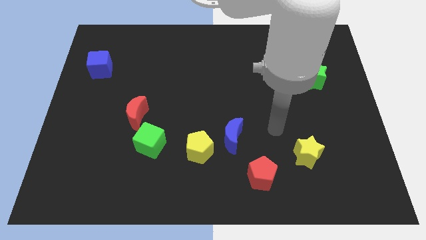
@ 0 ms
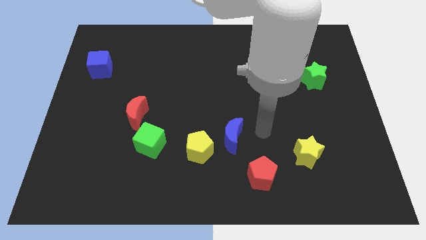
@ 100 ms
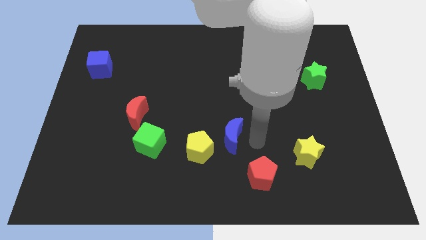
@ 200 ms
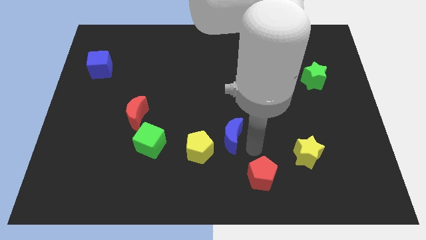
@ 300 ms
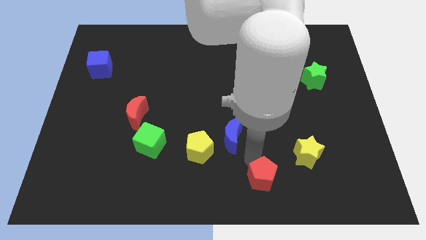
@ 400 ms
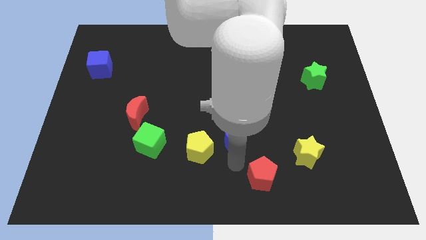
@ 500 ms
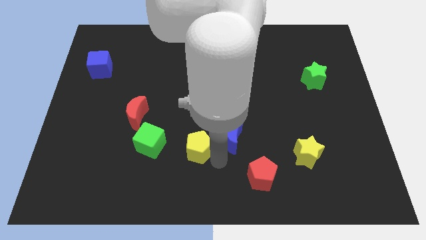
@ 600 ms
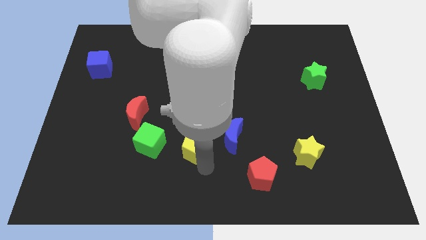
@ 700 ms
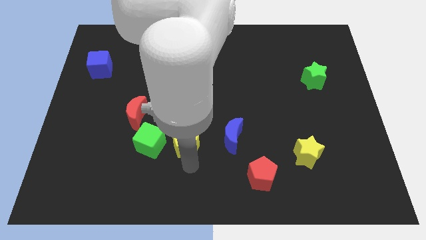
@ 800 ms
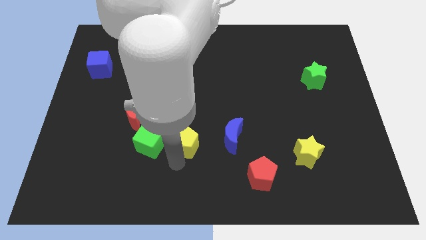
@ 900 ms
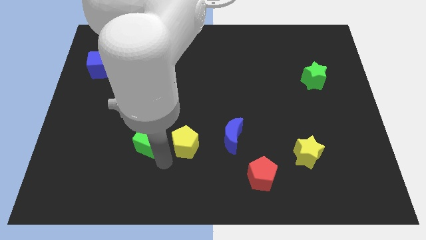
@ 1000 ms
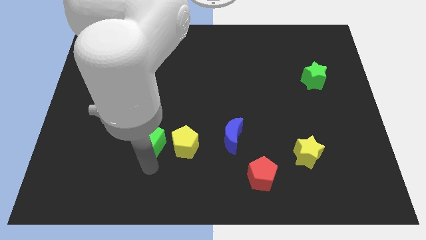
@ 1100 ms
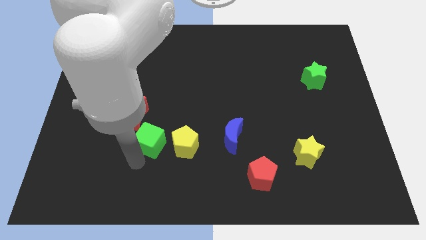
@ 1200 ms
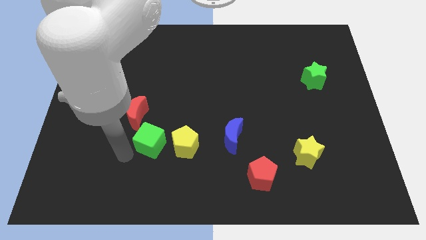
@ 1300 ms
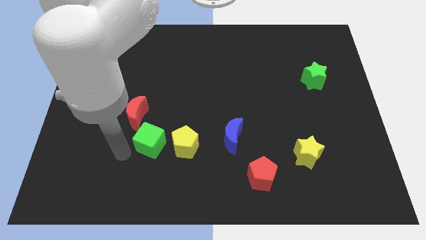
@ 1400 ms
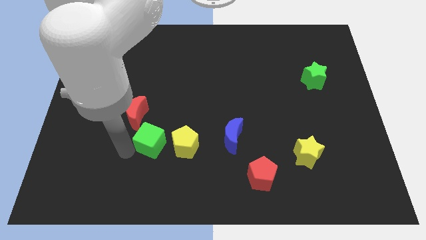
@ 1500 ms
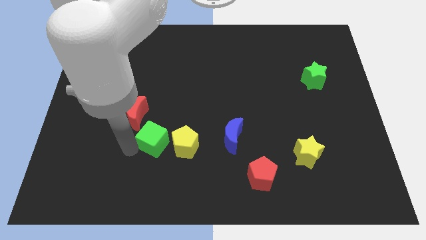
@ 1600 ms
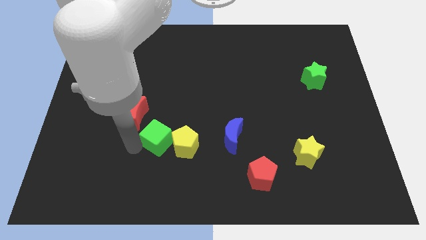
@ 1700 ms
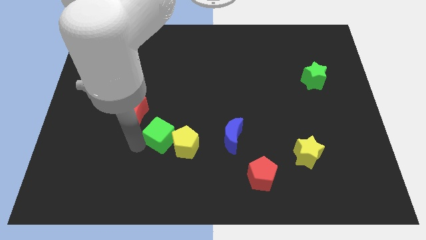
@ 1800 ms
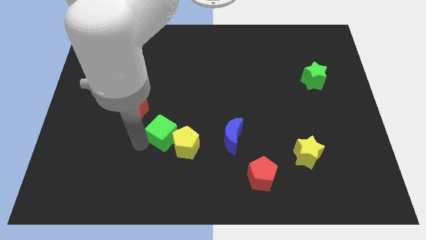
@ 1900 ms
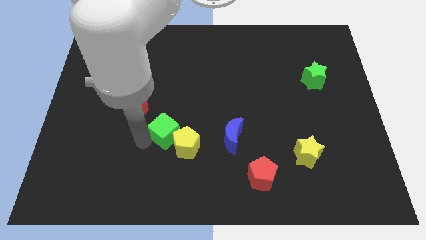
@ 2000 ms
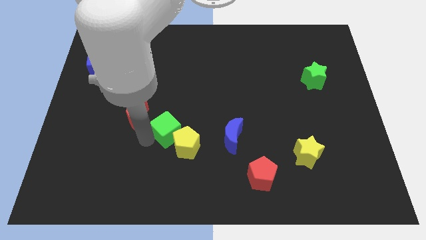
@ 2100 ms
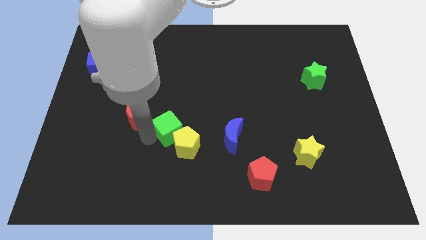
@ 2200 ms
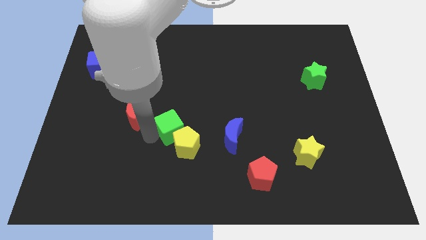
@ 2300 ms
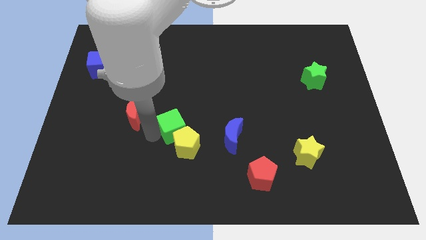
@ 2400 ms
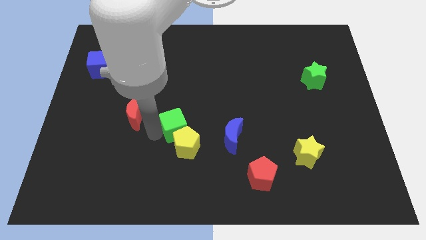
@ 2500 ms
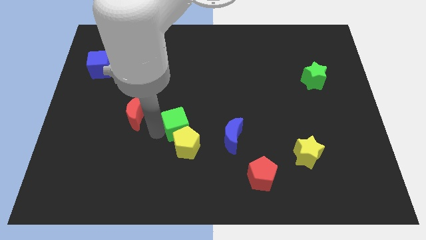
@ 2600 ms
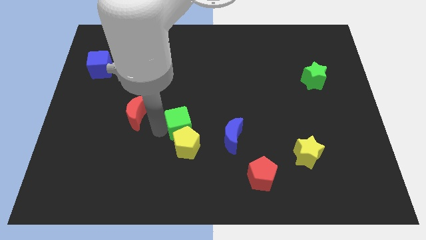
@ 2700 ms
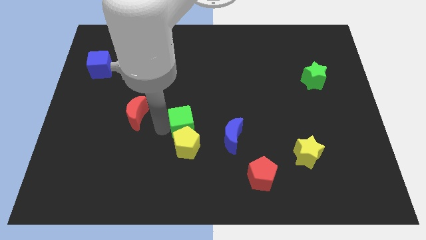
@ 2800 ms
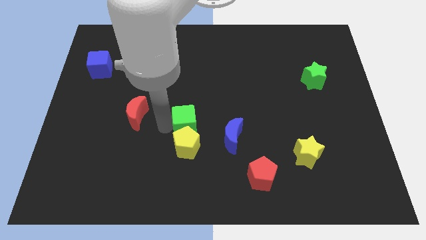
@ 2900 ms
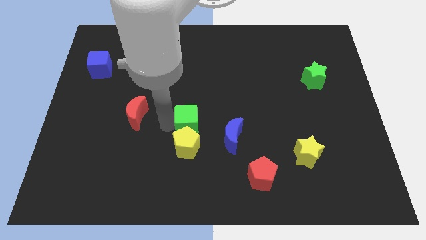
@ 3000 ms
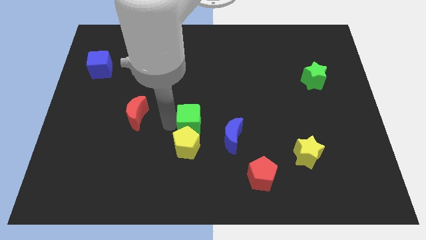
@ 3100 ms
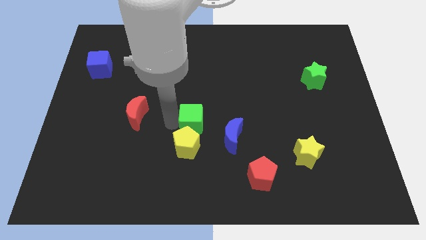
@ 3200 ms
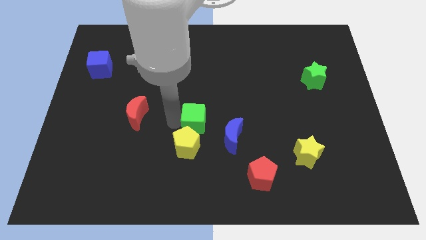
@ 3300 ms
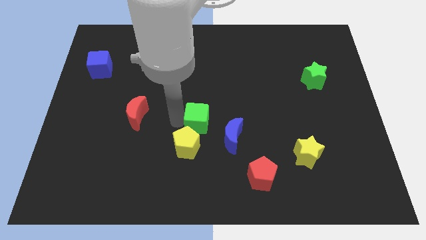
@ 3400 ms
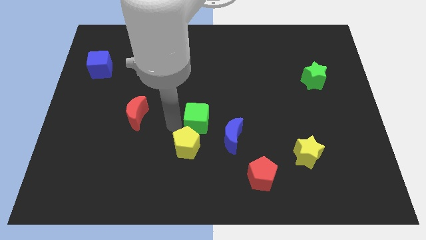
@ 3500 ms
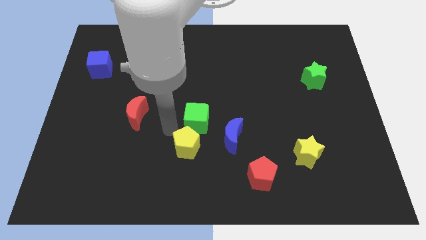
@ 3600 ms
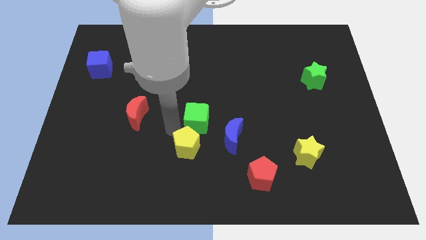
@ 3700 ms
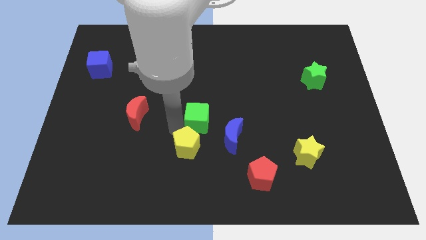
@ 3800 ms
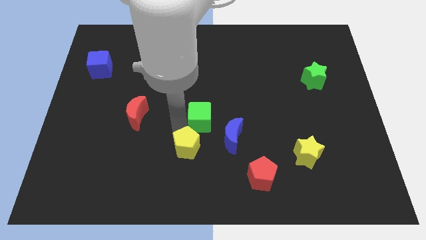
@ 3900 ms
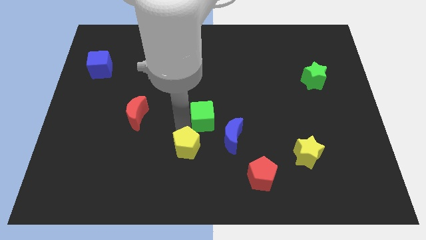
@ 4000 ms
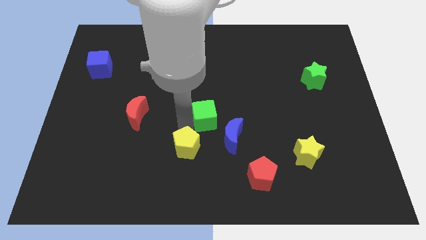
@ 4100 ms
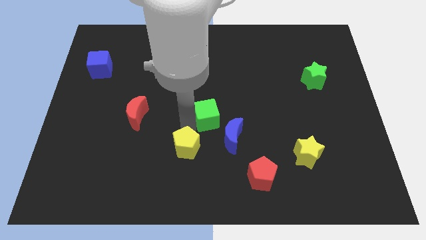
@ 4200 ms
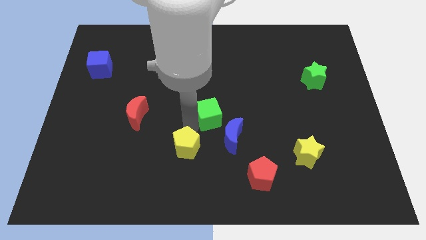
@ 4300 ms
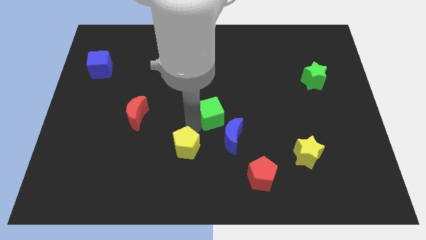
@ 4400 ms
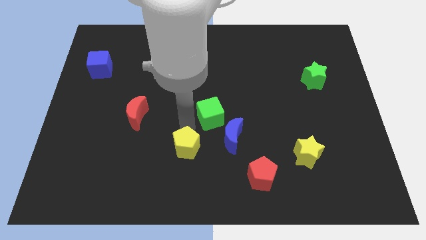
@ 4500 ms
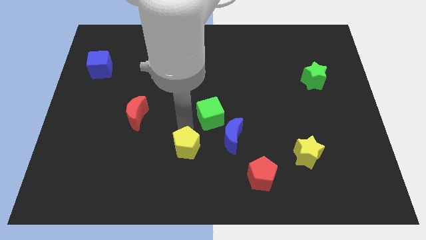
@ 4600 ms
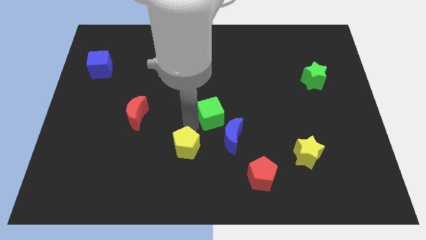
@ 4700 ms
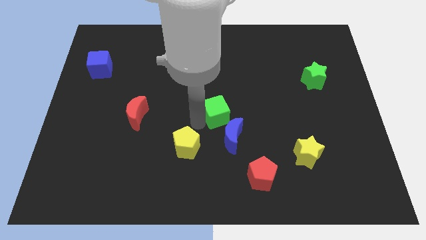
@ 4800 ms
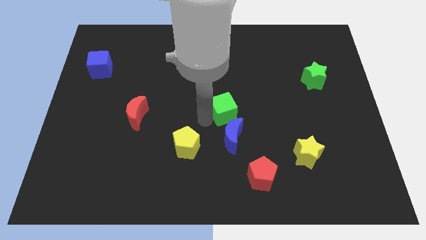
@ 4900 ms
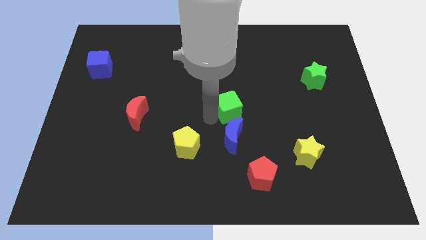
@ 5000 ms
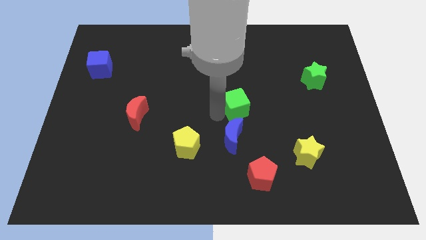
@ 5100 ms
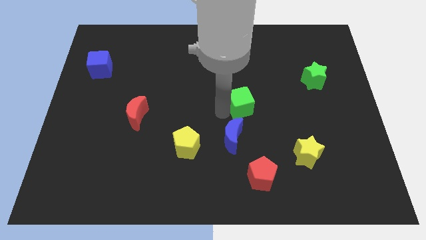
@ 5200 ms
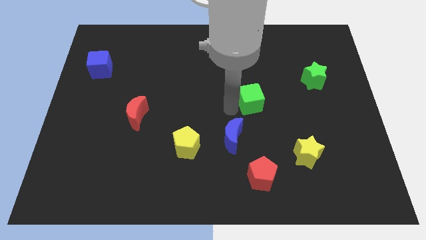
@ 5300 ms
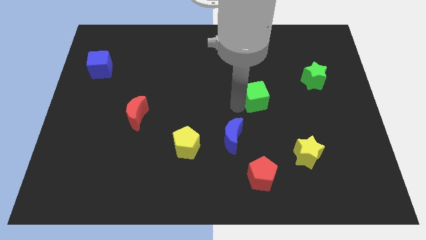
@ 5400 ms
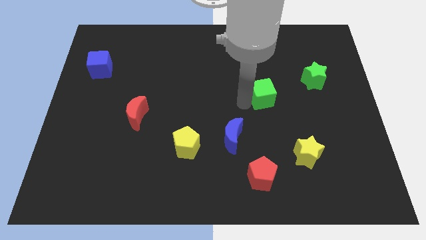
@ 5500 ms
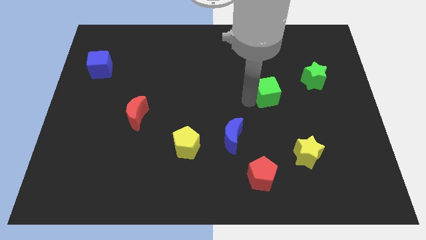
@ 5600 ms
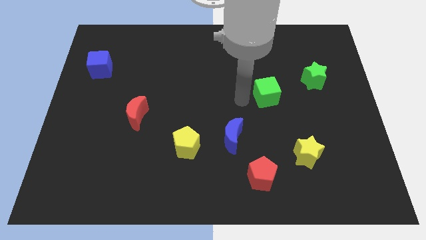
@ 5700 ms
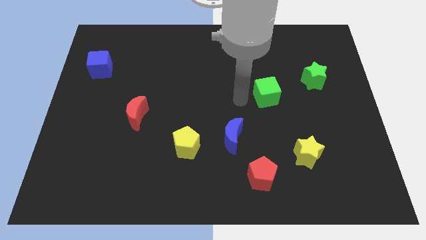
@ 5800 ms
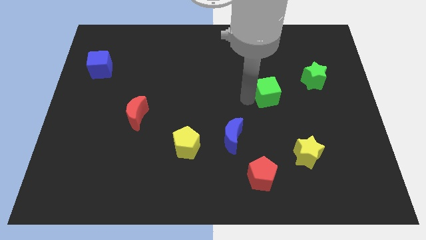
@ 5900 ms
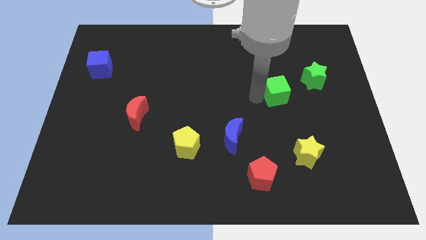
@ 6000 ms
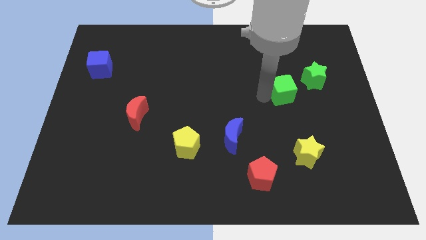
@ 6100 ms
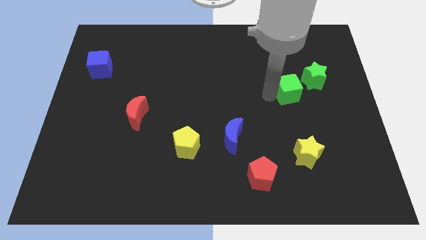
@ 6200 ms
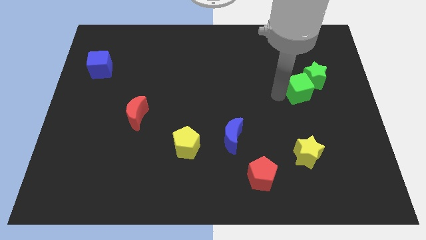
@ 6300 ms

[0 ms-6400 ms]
put the green cube next to the green star

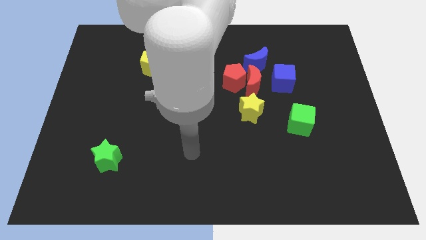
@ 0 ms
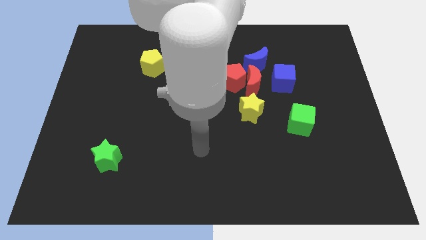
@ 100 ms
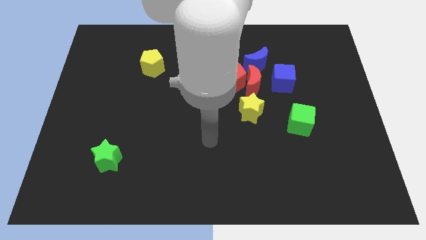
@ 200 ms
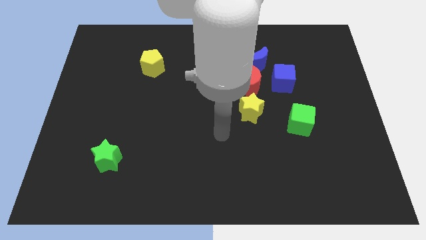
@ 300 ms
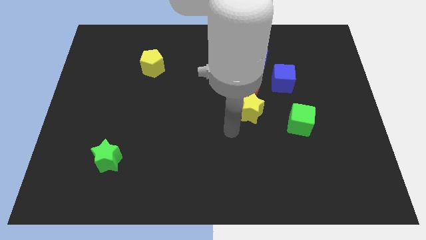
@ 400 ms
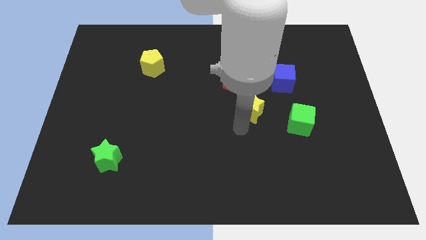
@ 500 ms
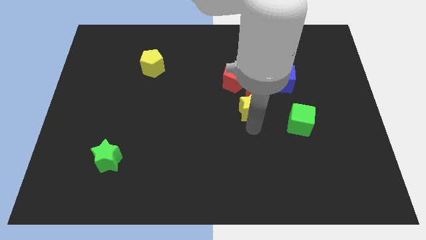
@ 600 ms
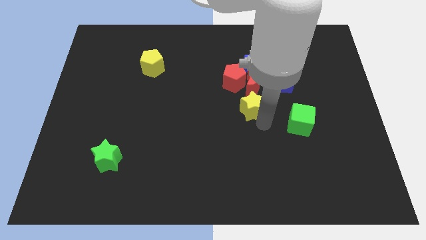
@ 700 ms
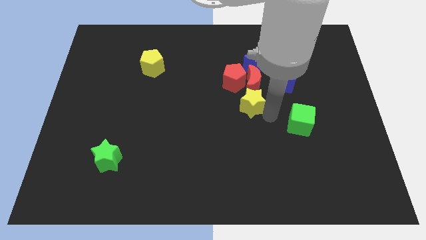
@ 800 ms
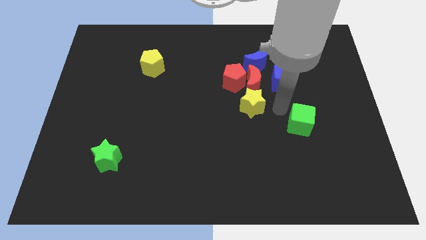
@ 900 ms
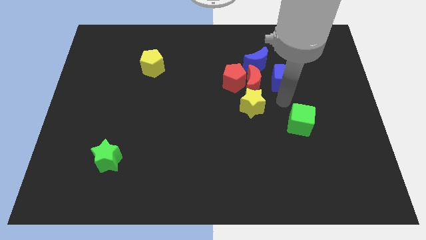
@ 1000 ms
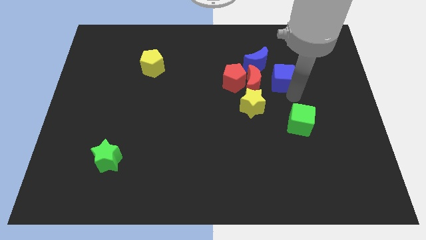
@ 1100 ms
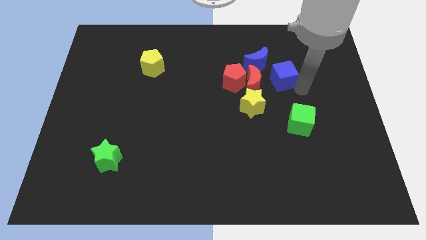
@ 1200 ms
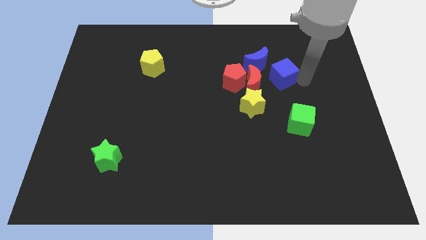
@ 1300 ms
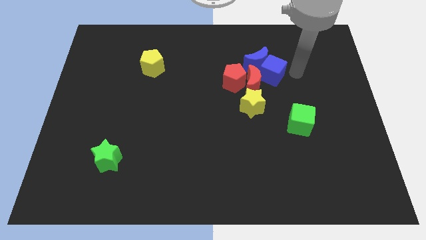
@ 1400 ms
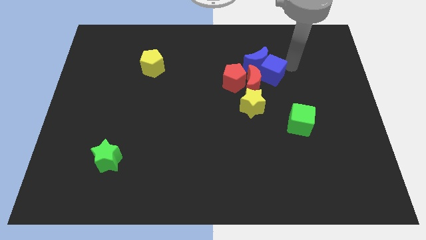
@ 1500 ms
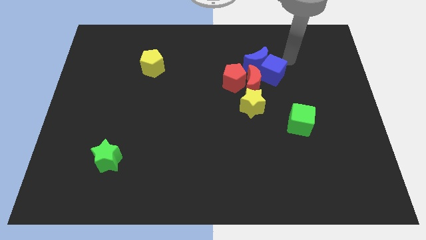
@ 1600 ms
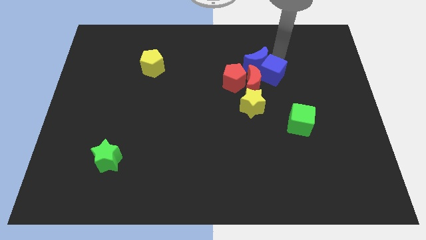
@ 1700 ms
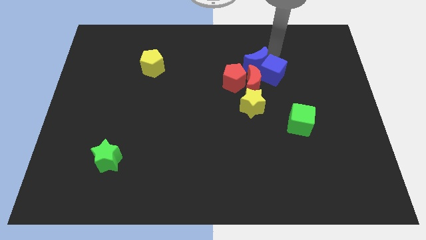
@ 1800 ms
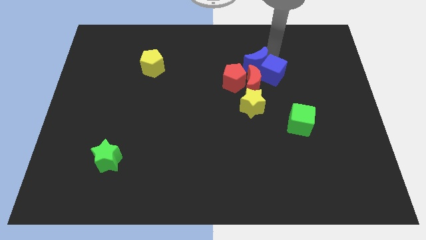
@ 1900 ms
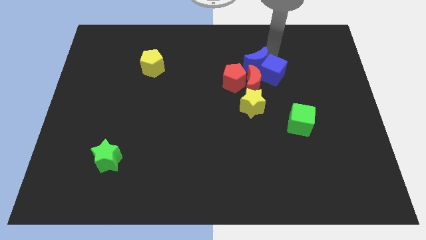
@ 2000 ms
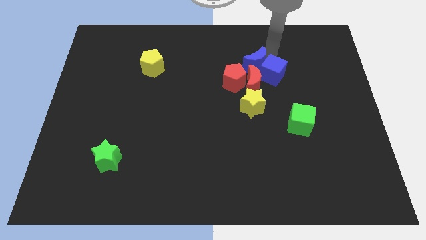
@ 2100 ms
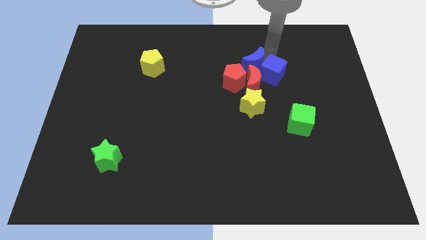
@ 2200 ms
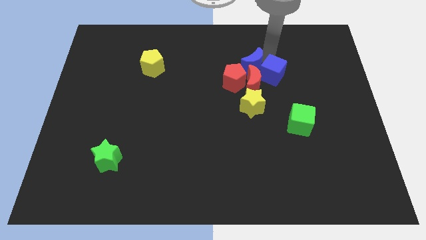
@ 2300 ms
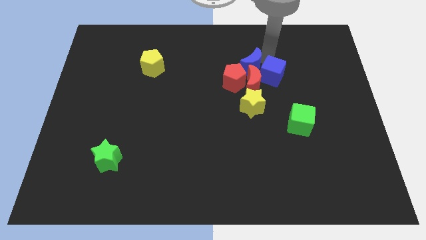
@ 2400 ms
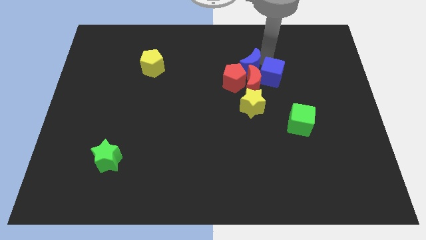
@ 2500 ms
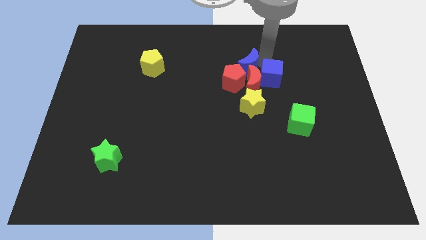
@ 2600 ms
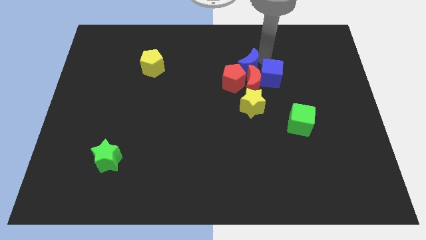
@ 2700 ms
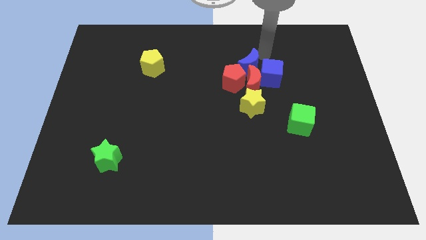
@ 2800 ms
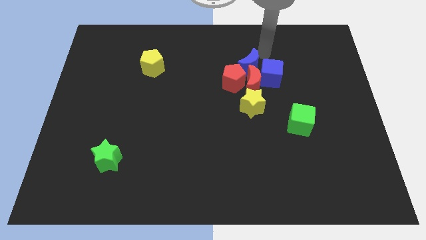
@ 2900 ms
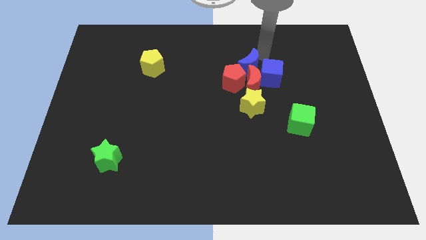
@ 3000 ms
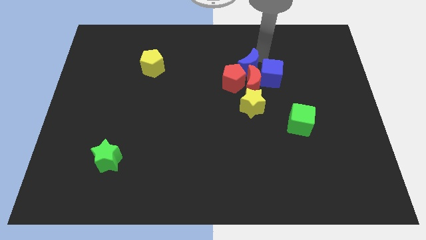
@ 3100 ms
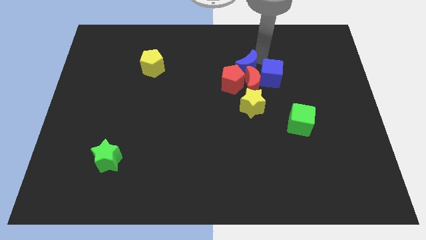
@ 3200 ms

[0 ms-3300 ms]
move the blue moon to the red pentagon
